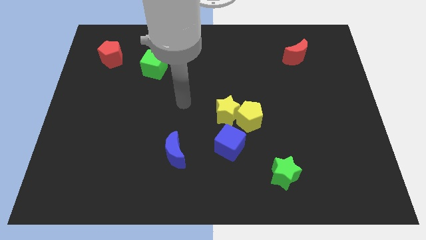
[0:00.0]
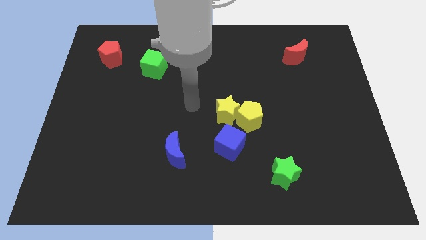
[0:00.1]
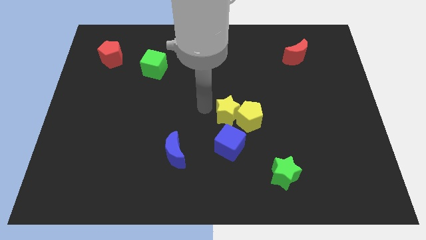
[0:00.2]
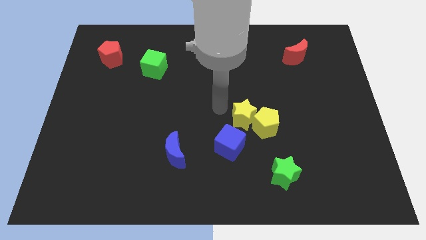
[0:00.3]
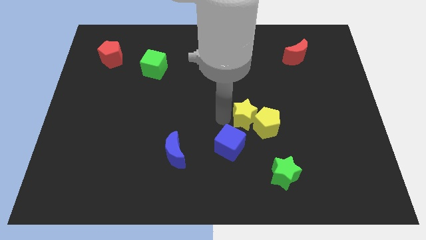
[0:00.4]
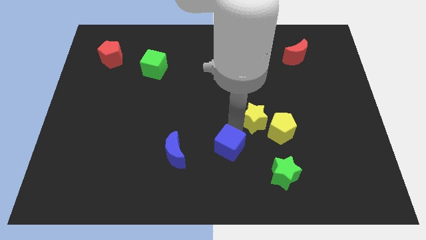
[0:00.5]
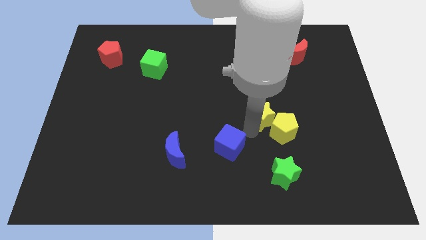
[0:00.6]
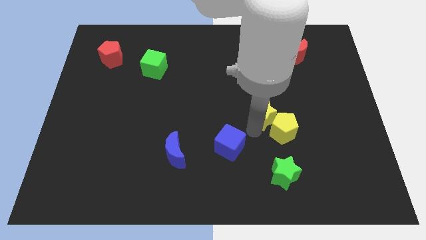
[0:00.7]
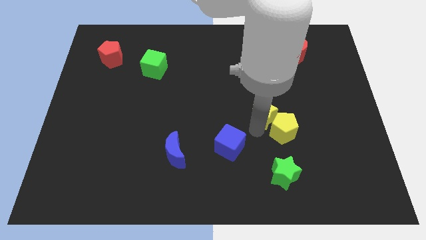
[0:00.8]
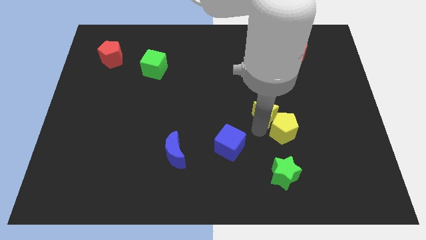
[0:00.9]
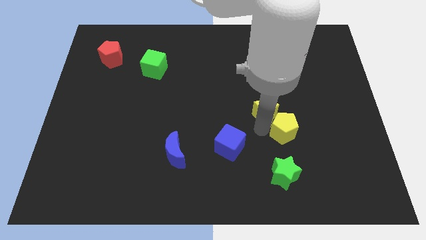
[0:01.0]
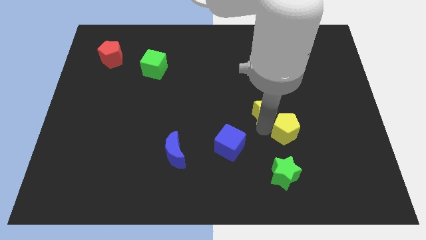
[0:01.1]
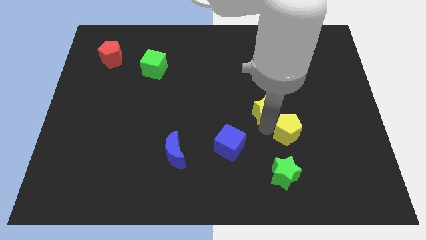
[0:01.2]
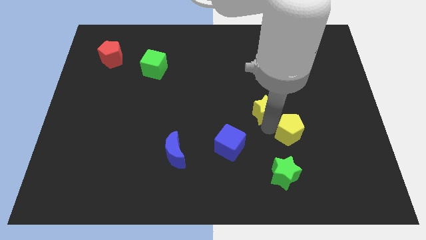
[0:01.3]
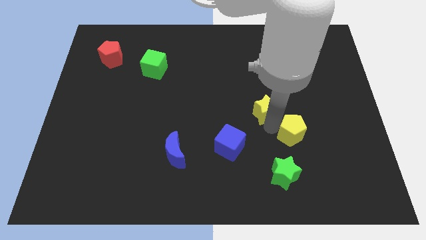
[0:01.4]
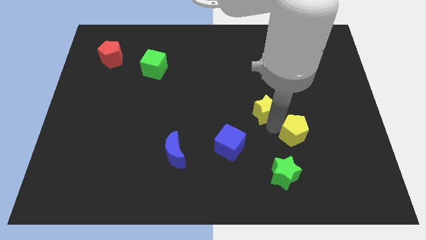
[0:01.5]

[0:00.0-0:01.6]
move the yellow pentagon away from the yellow star and blue cube

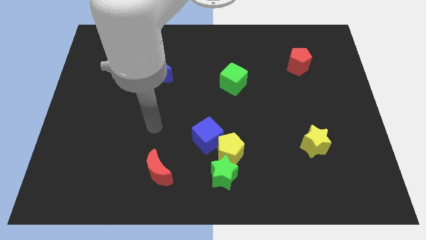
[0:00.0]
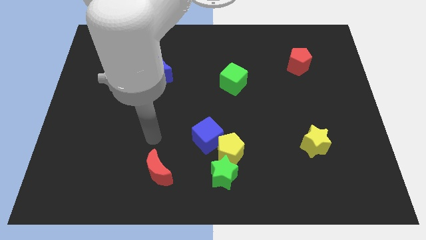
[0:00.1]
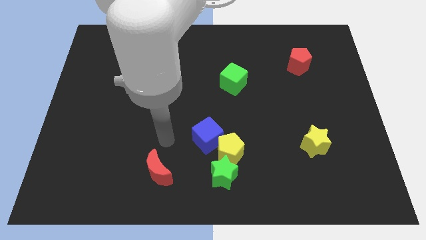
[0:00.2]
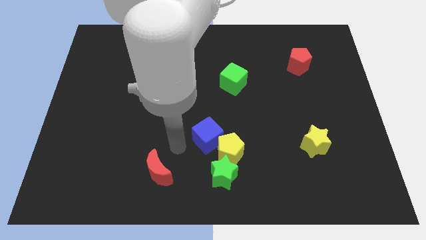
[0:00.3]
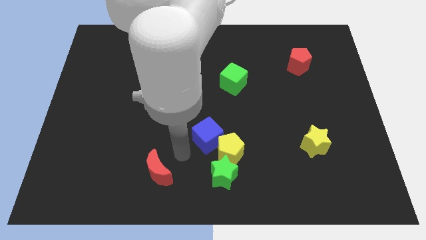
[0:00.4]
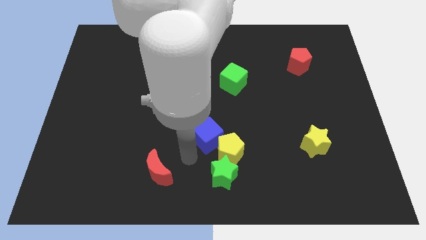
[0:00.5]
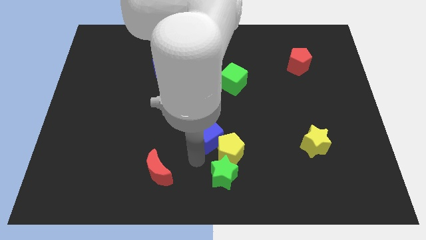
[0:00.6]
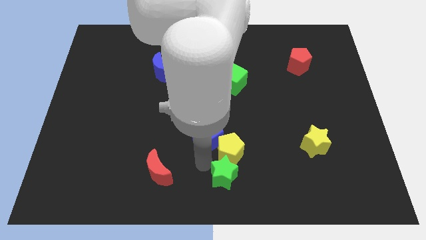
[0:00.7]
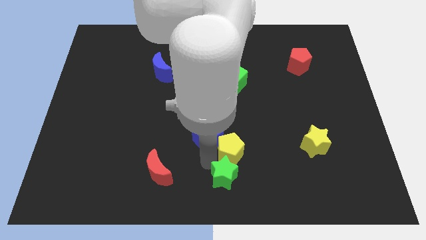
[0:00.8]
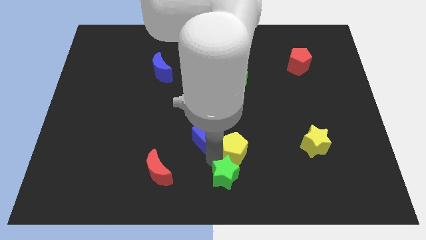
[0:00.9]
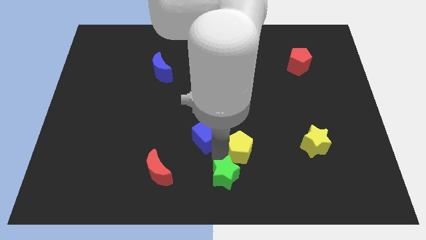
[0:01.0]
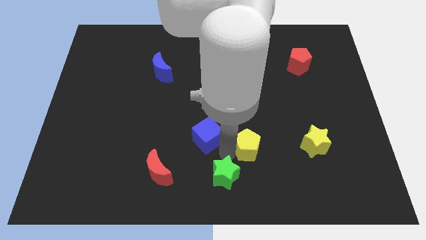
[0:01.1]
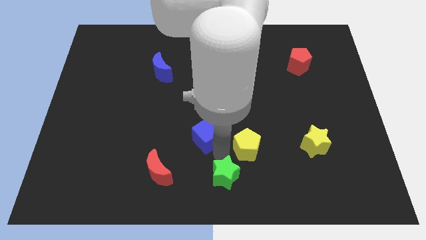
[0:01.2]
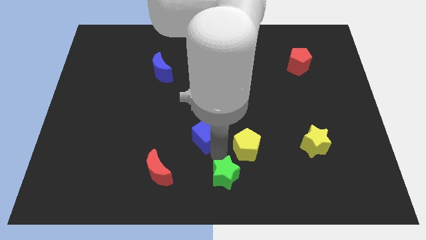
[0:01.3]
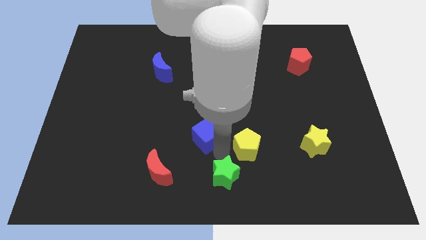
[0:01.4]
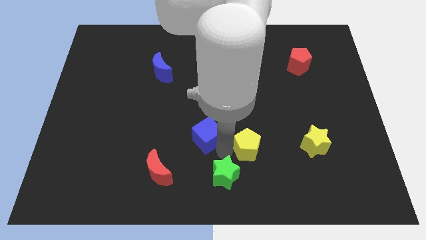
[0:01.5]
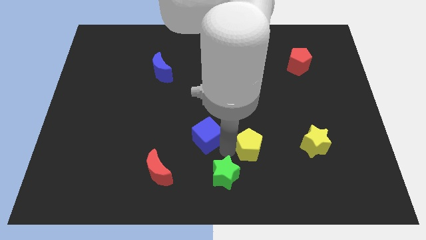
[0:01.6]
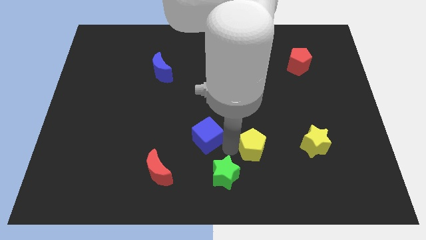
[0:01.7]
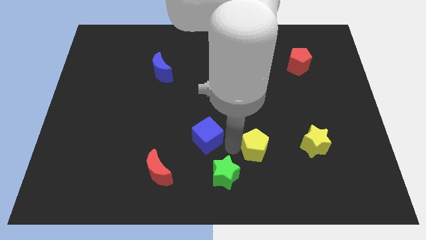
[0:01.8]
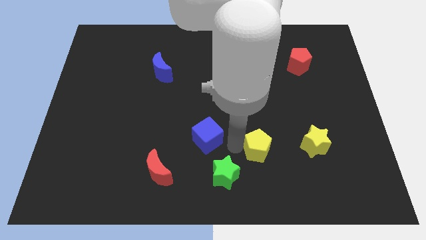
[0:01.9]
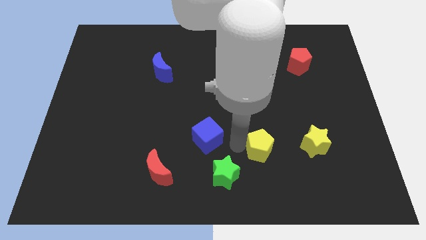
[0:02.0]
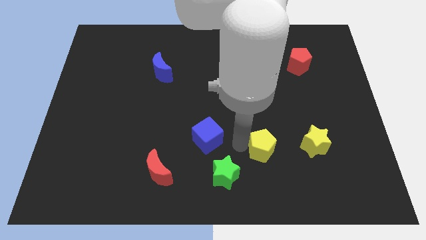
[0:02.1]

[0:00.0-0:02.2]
move the yellow pentagon away from the green star and blue cube

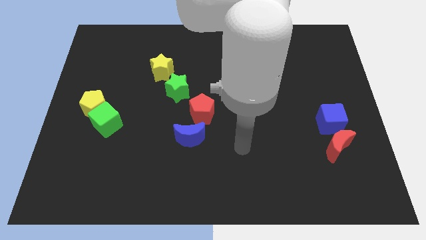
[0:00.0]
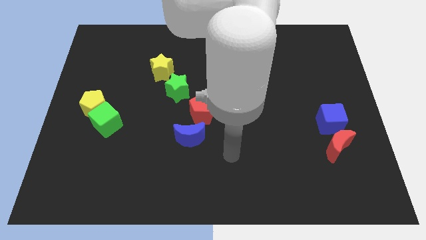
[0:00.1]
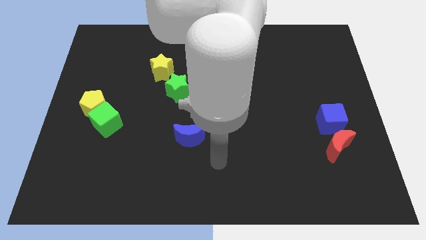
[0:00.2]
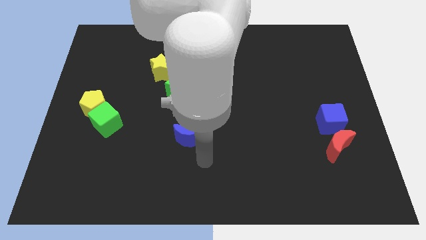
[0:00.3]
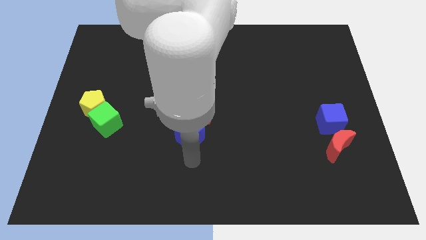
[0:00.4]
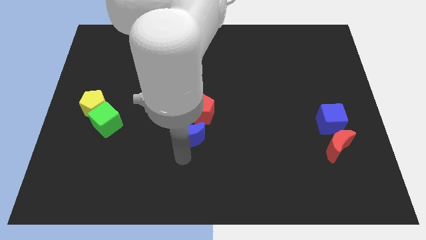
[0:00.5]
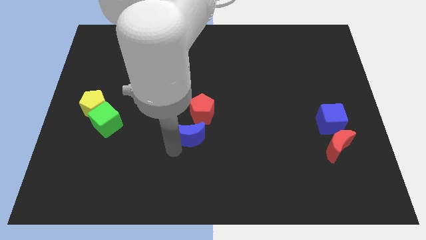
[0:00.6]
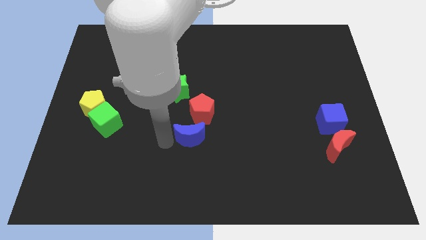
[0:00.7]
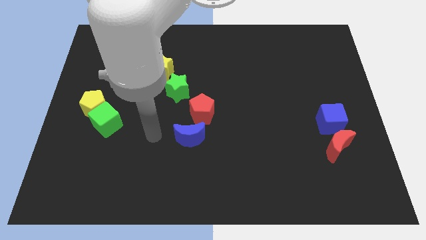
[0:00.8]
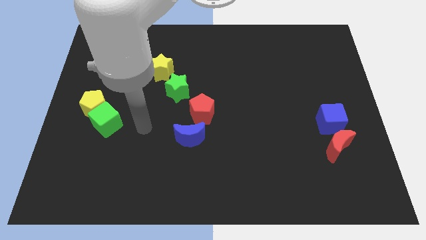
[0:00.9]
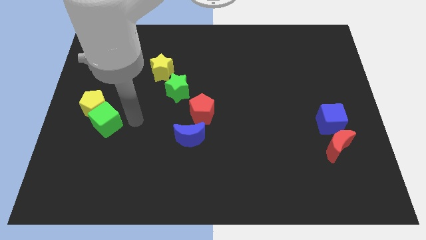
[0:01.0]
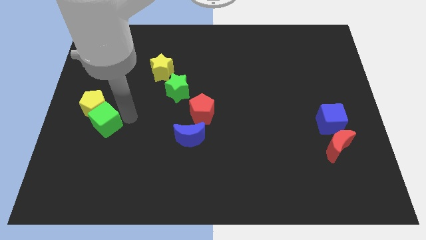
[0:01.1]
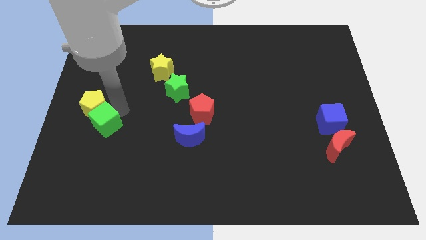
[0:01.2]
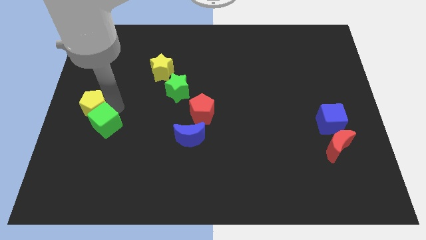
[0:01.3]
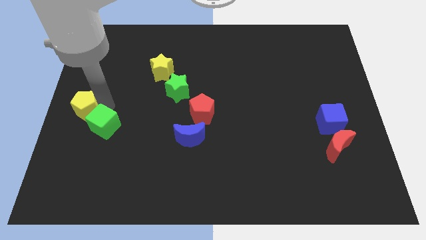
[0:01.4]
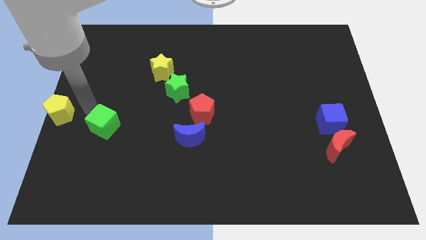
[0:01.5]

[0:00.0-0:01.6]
separate the green cube from the yellow pentagon

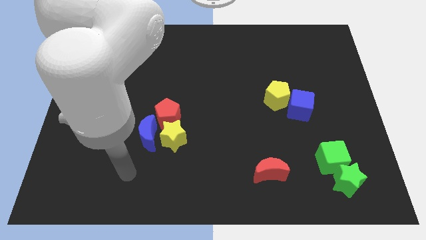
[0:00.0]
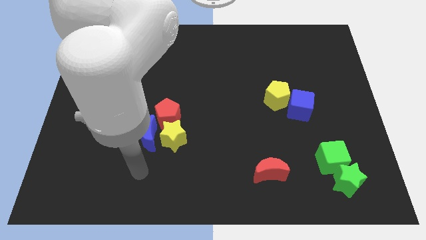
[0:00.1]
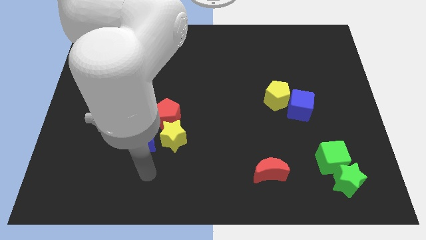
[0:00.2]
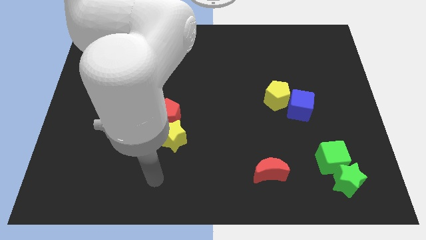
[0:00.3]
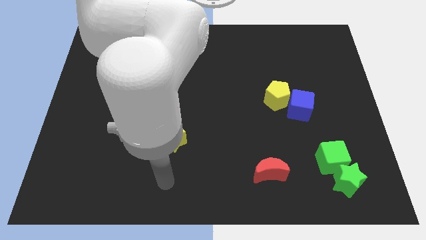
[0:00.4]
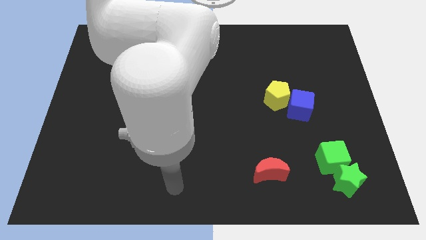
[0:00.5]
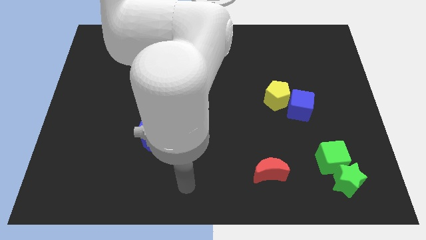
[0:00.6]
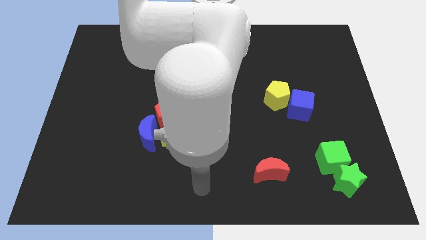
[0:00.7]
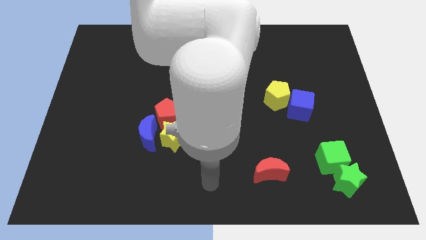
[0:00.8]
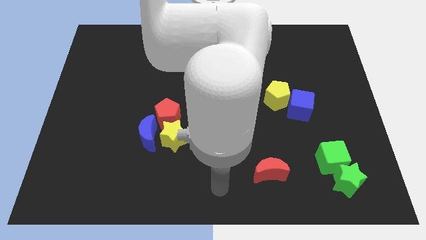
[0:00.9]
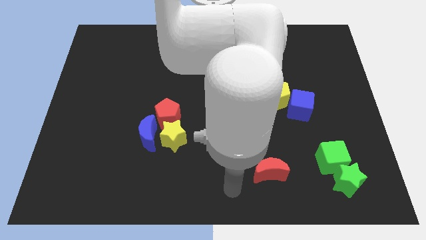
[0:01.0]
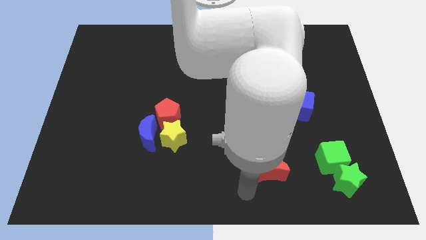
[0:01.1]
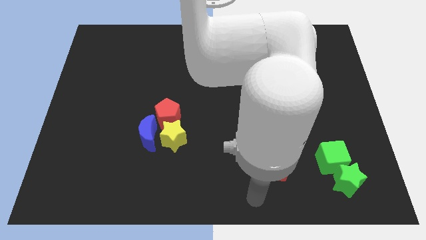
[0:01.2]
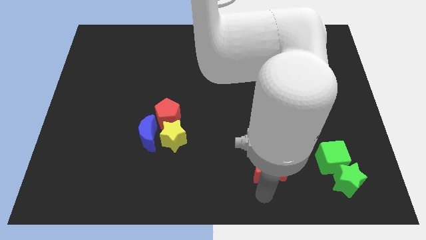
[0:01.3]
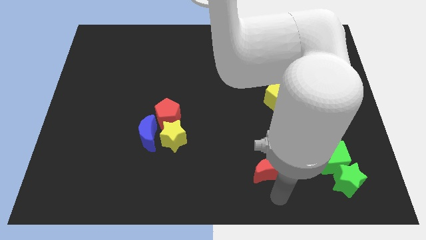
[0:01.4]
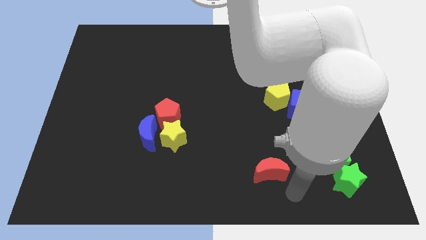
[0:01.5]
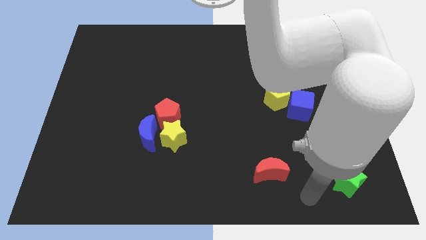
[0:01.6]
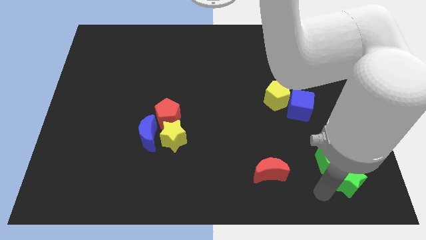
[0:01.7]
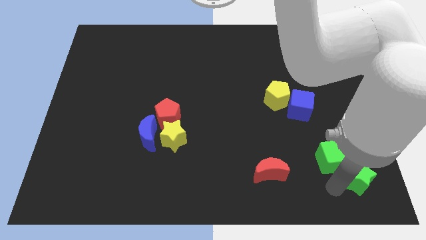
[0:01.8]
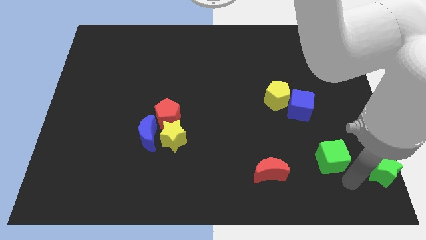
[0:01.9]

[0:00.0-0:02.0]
pull the green cube apart from the green star

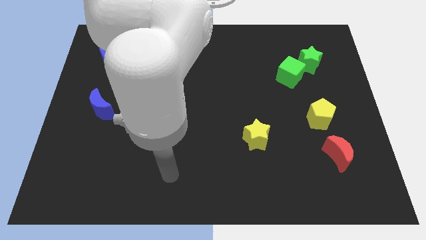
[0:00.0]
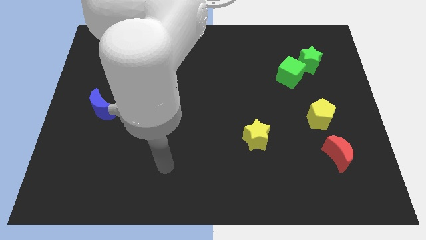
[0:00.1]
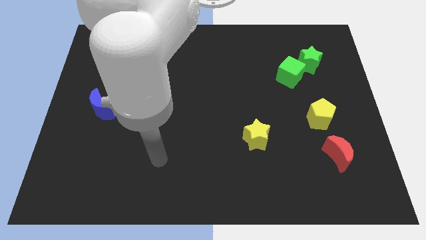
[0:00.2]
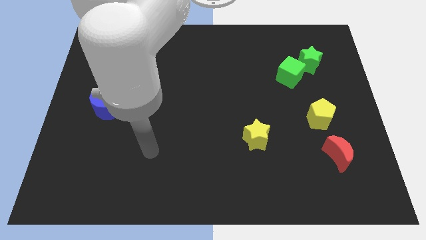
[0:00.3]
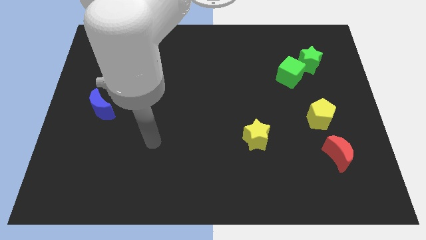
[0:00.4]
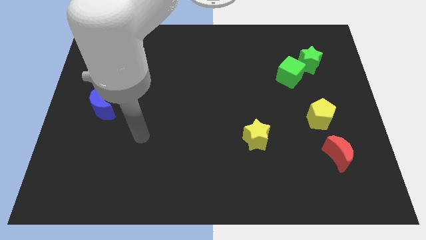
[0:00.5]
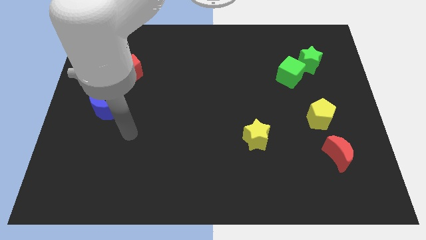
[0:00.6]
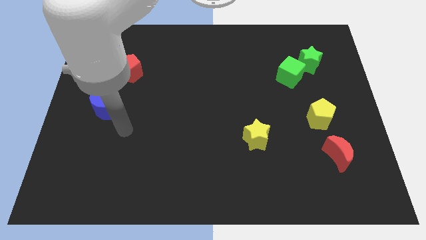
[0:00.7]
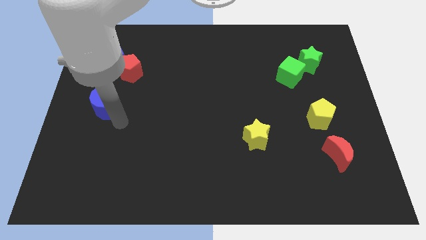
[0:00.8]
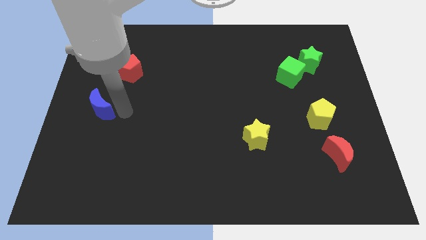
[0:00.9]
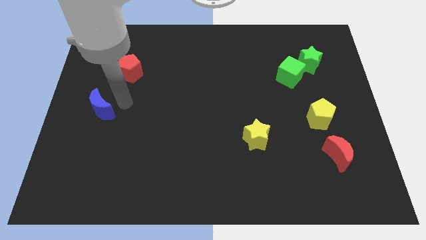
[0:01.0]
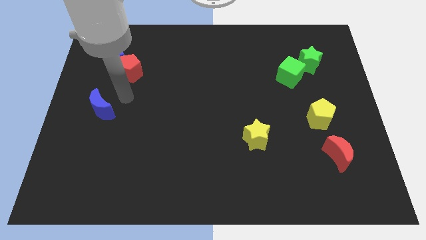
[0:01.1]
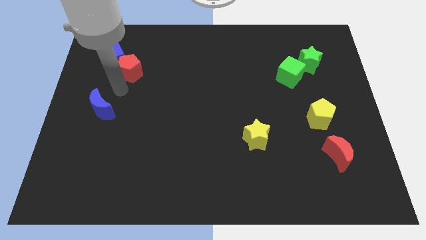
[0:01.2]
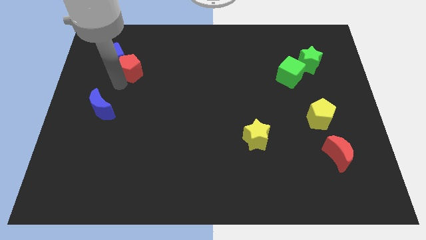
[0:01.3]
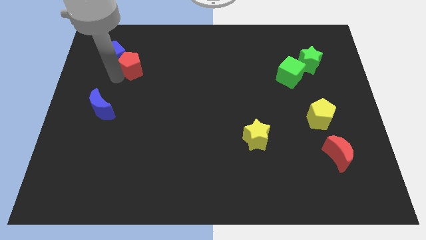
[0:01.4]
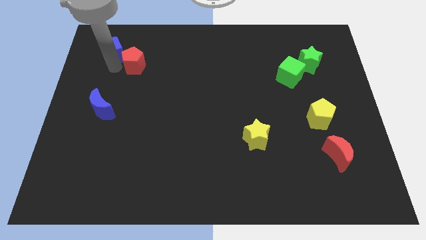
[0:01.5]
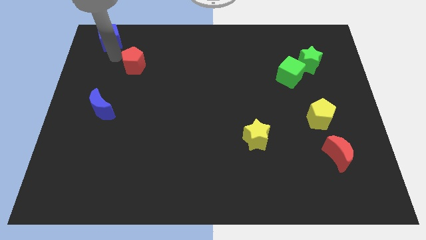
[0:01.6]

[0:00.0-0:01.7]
separate the red pentagon from the blue cube

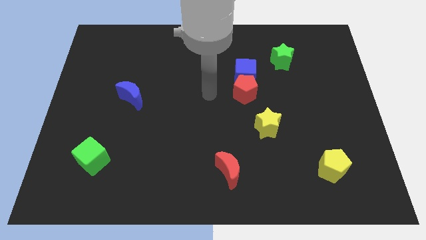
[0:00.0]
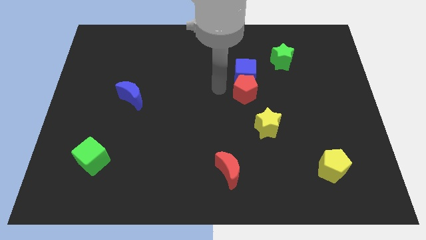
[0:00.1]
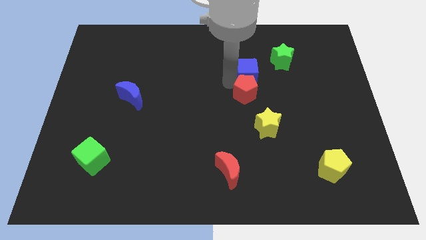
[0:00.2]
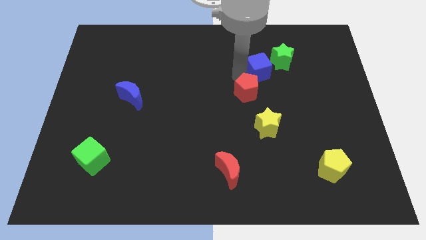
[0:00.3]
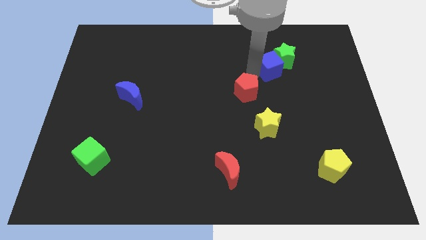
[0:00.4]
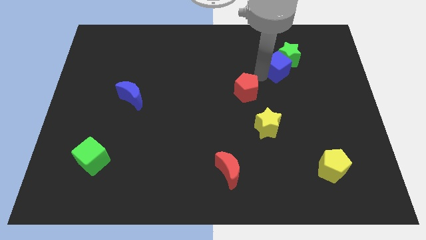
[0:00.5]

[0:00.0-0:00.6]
pull the red pentagon apart from the blue cube
